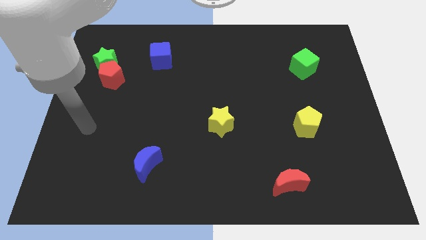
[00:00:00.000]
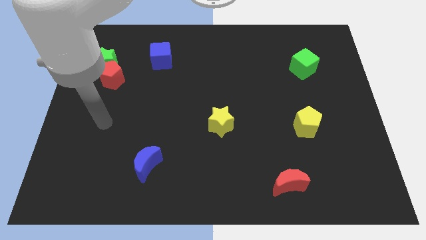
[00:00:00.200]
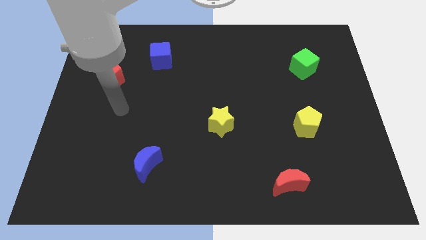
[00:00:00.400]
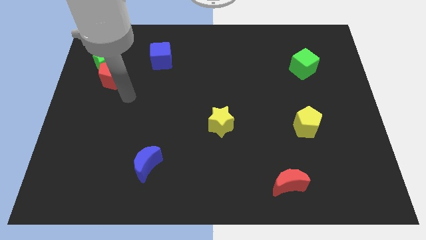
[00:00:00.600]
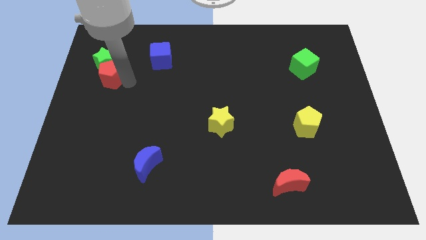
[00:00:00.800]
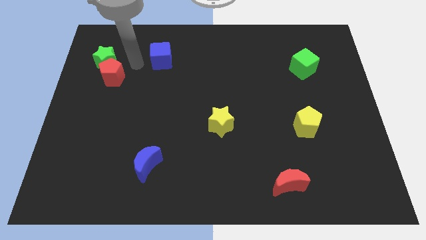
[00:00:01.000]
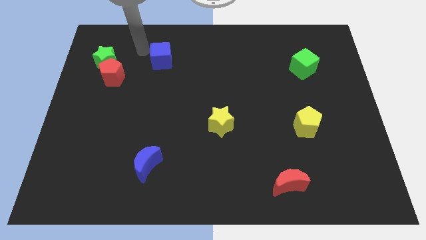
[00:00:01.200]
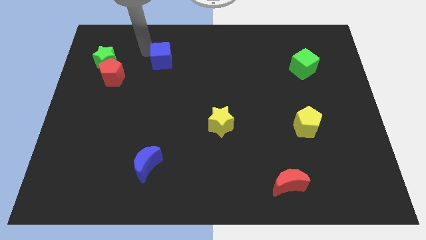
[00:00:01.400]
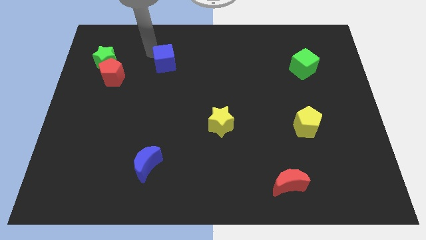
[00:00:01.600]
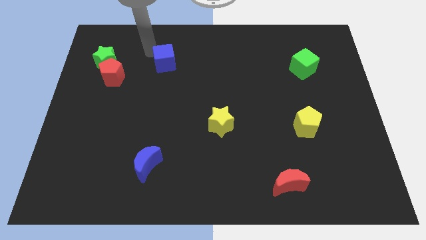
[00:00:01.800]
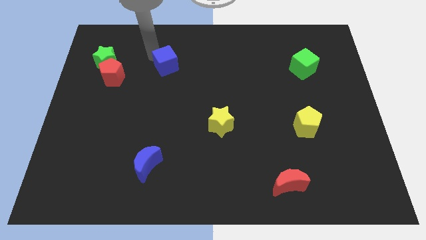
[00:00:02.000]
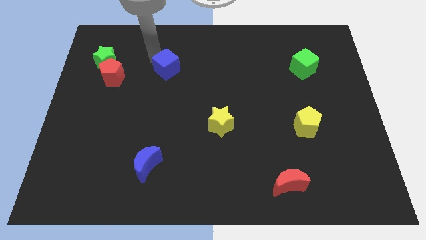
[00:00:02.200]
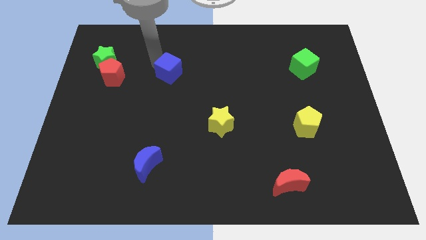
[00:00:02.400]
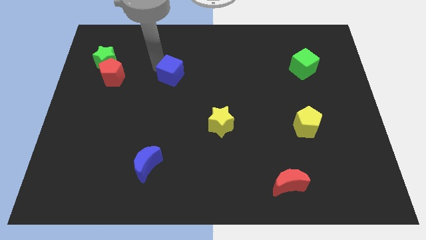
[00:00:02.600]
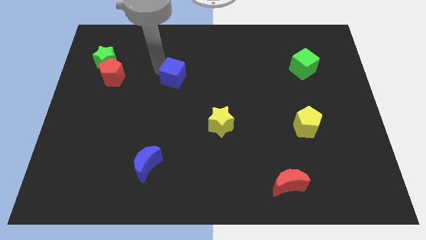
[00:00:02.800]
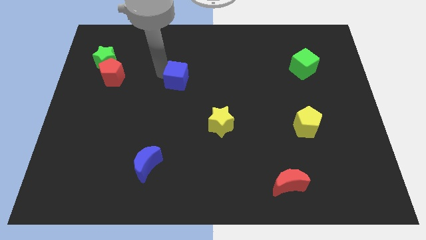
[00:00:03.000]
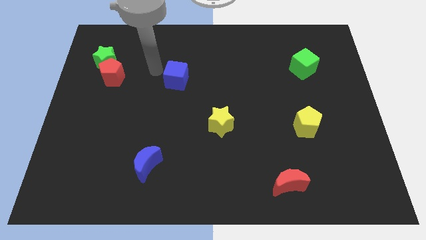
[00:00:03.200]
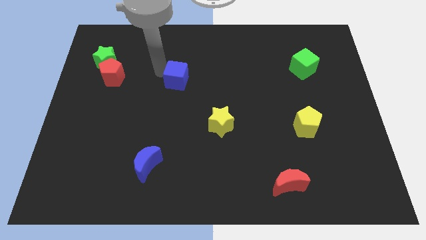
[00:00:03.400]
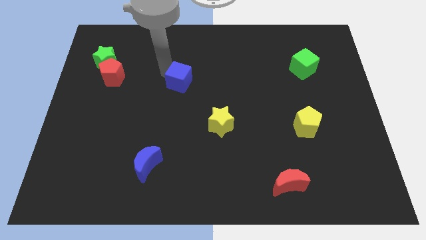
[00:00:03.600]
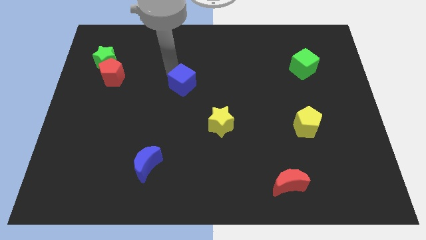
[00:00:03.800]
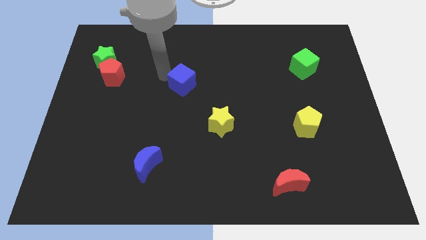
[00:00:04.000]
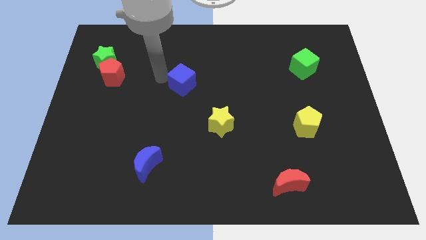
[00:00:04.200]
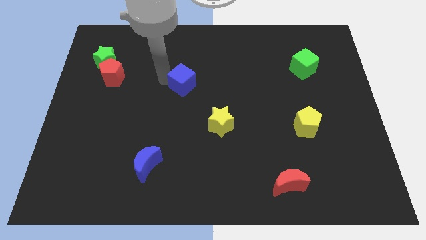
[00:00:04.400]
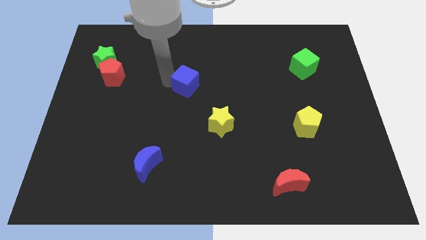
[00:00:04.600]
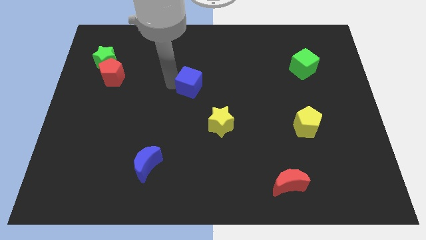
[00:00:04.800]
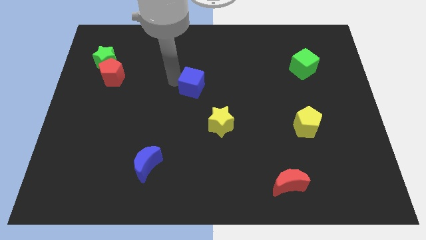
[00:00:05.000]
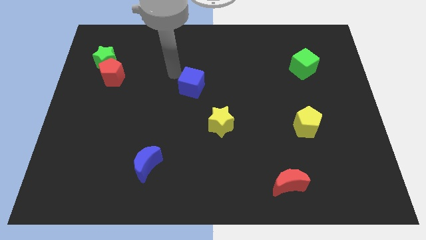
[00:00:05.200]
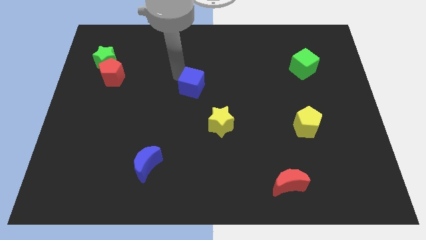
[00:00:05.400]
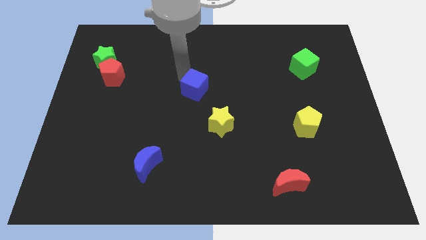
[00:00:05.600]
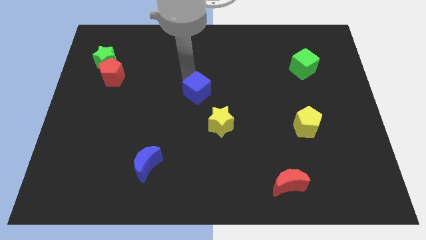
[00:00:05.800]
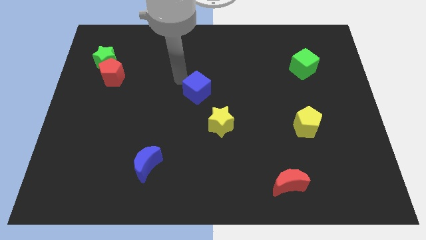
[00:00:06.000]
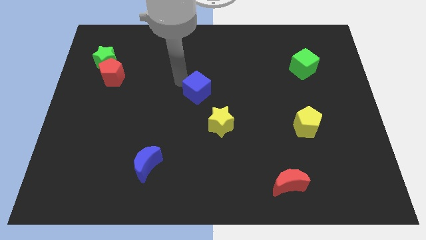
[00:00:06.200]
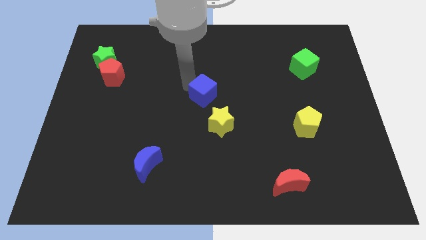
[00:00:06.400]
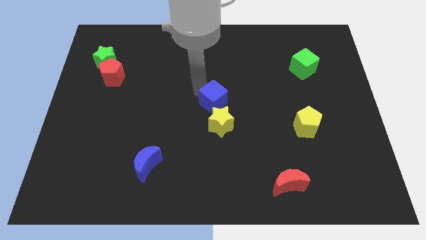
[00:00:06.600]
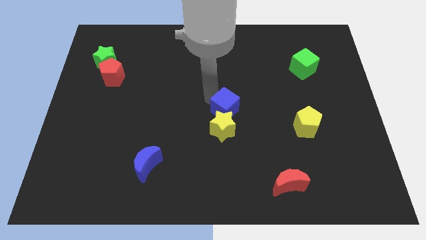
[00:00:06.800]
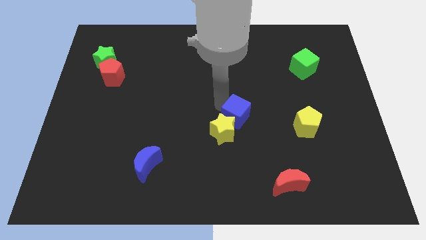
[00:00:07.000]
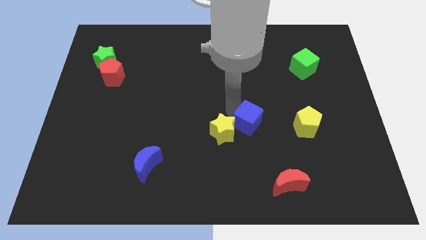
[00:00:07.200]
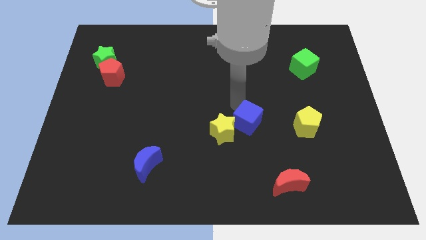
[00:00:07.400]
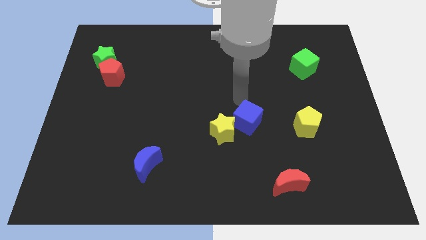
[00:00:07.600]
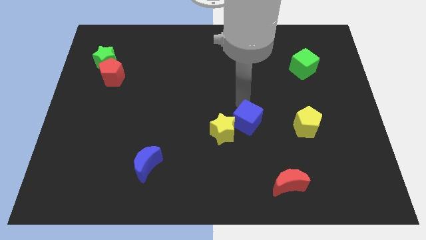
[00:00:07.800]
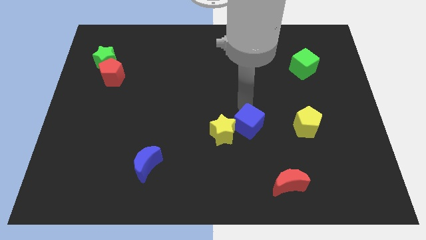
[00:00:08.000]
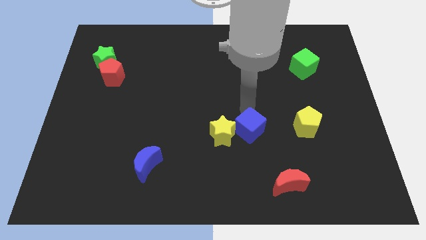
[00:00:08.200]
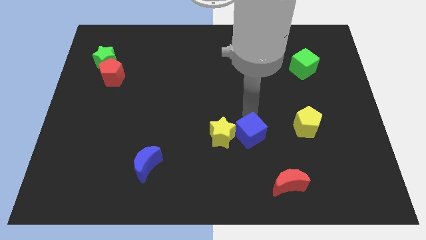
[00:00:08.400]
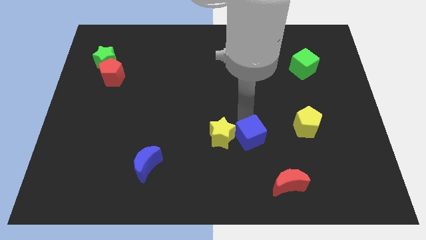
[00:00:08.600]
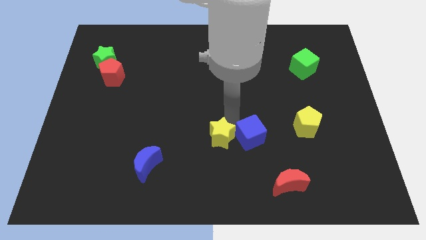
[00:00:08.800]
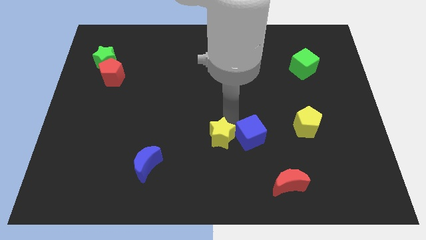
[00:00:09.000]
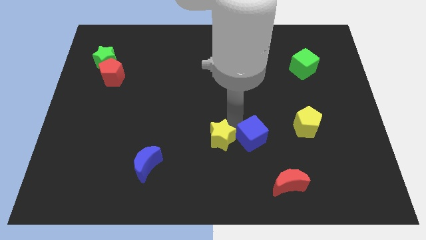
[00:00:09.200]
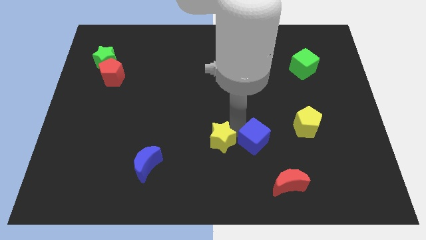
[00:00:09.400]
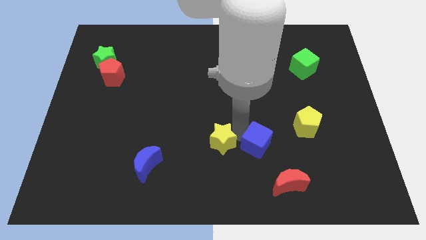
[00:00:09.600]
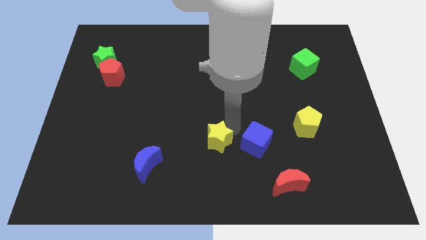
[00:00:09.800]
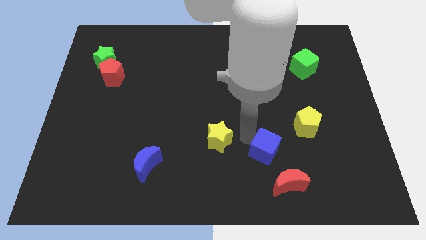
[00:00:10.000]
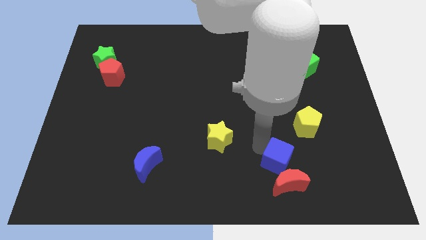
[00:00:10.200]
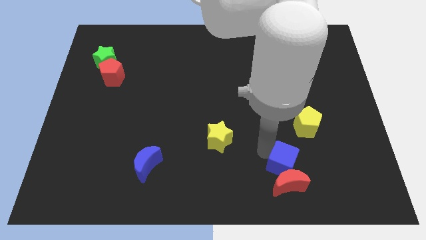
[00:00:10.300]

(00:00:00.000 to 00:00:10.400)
move the blue cube diagonally up and to the right of the red moon

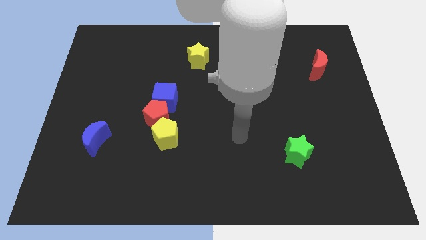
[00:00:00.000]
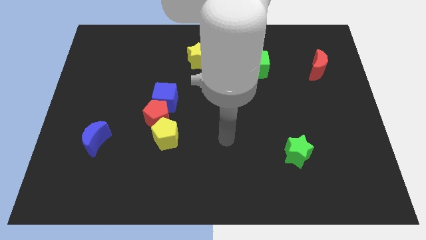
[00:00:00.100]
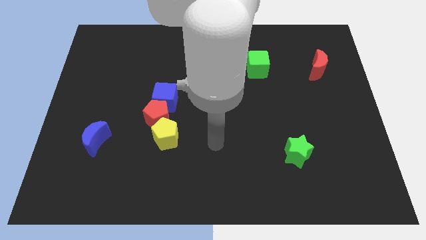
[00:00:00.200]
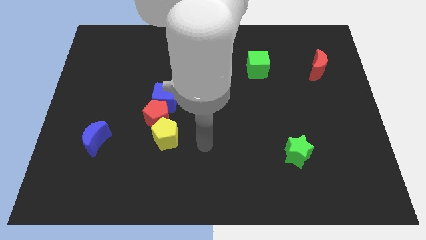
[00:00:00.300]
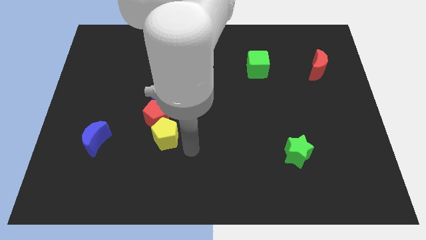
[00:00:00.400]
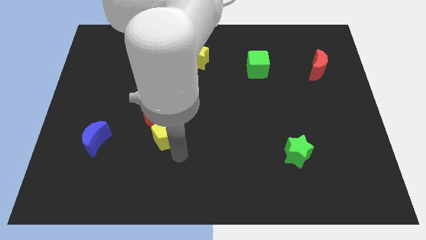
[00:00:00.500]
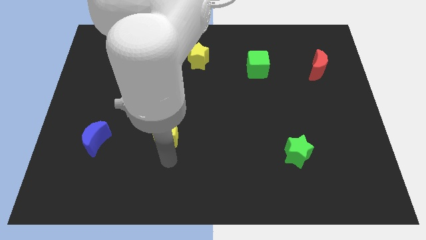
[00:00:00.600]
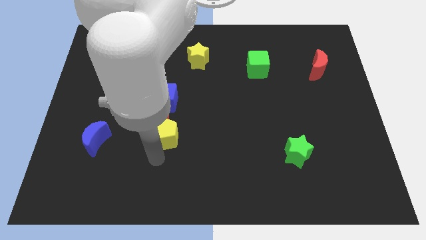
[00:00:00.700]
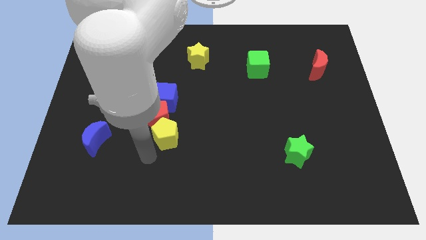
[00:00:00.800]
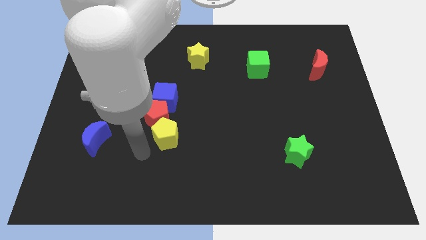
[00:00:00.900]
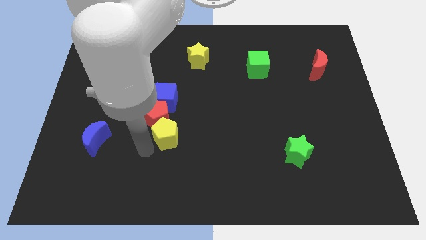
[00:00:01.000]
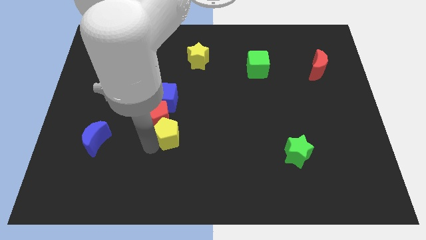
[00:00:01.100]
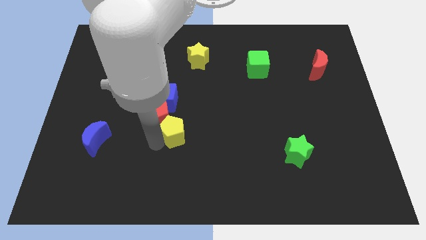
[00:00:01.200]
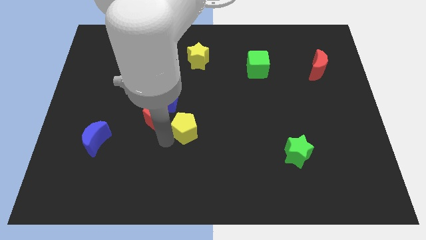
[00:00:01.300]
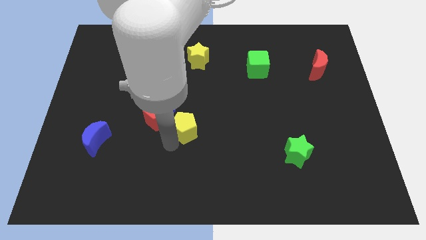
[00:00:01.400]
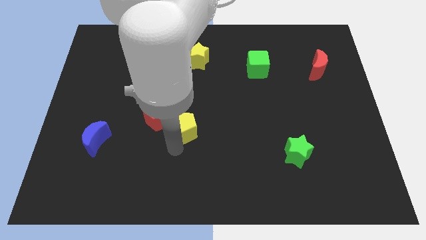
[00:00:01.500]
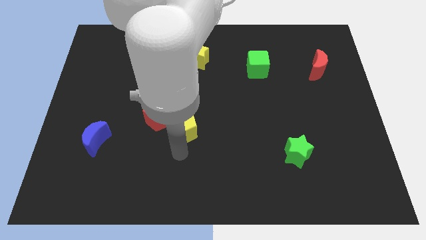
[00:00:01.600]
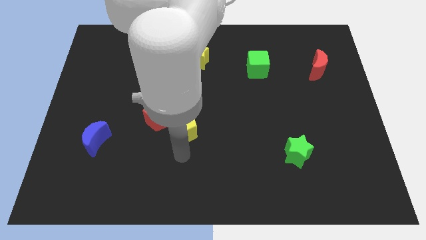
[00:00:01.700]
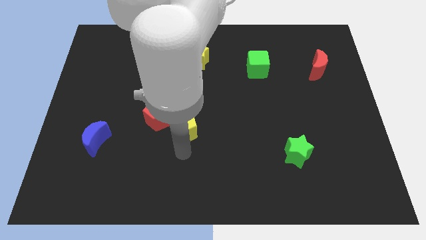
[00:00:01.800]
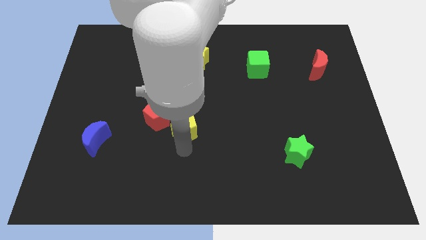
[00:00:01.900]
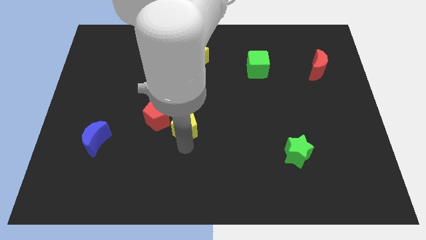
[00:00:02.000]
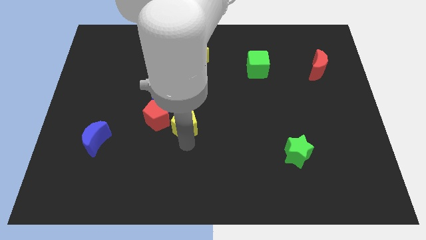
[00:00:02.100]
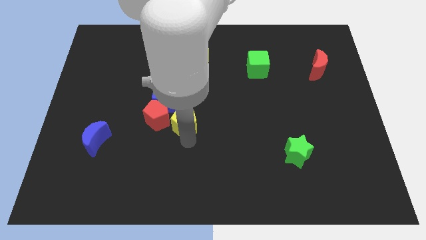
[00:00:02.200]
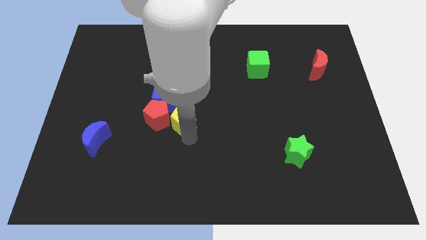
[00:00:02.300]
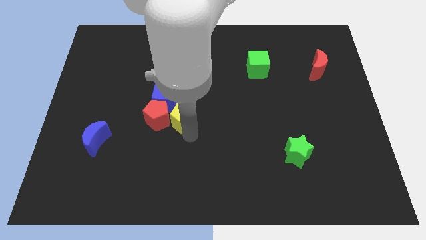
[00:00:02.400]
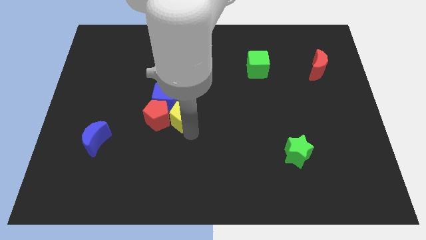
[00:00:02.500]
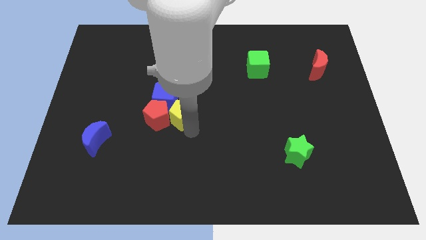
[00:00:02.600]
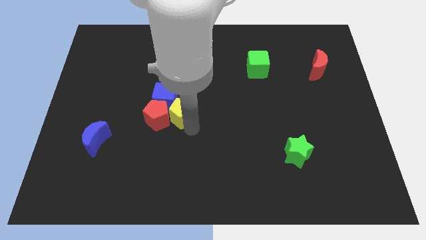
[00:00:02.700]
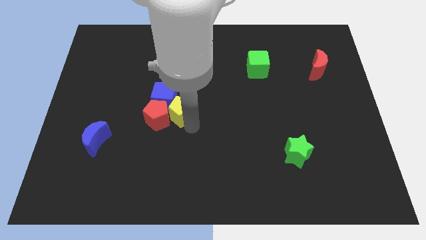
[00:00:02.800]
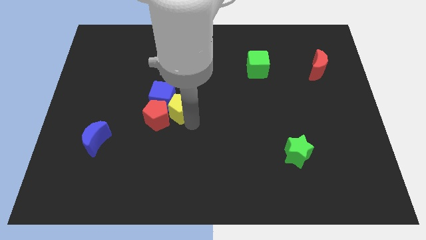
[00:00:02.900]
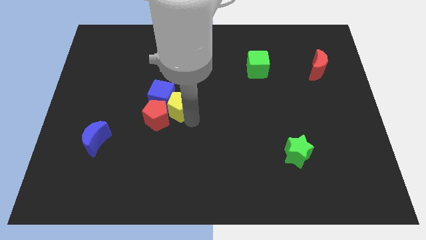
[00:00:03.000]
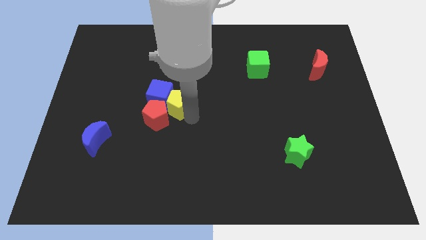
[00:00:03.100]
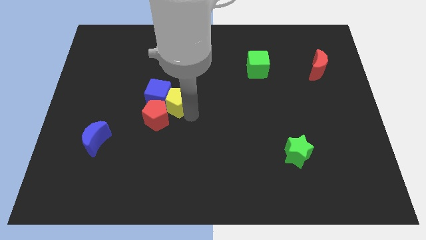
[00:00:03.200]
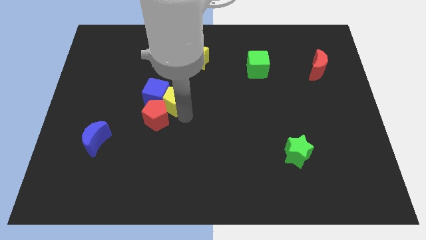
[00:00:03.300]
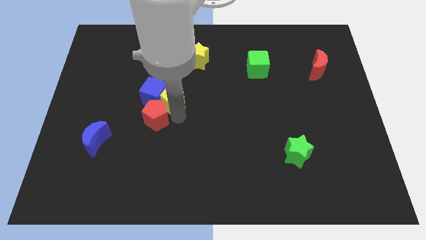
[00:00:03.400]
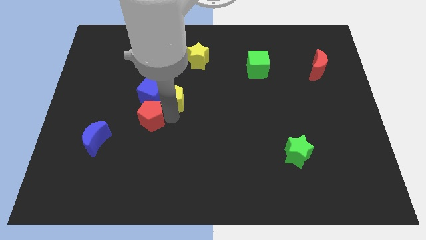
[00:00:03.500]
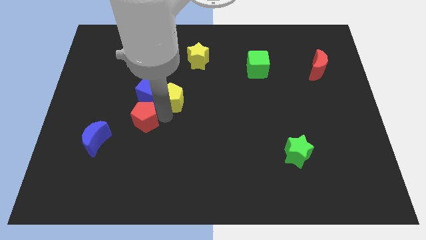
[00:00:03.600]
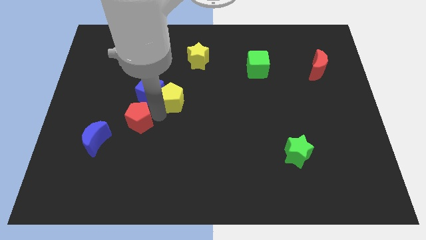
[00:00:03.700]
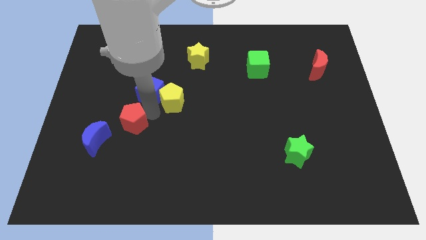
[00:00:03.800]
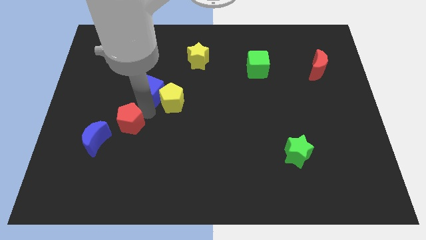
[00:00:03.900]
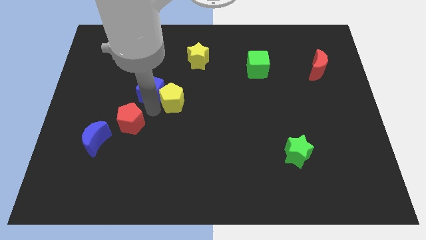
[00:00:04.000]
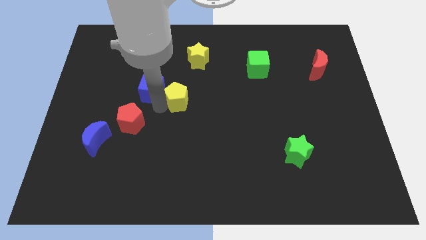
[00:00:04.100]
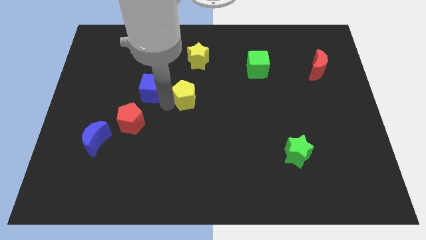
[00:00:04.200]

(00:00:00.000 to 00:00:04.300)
move the yellow pentagon to the bottom side of the yellow star
